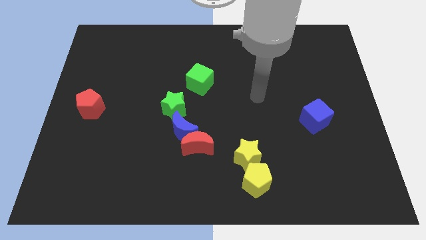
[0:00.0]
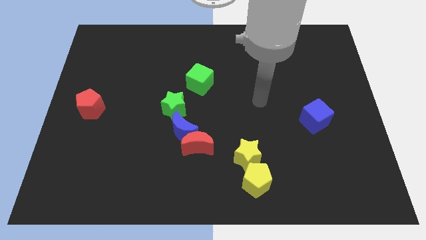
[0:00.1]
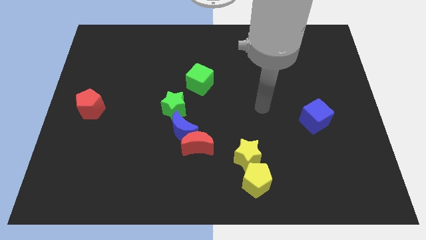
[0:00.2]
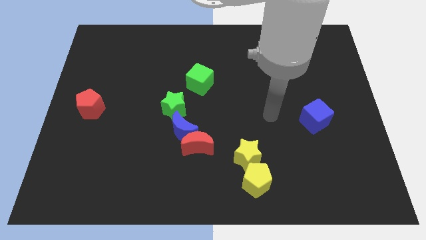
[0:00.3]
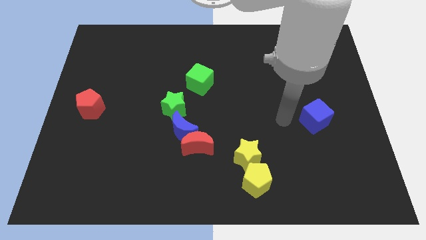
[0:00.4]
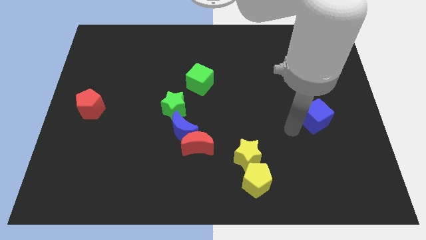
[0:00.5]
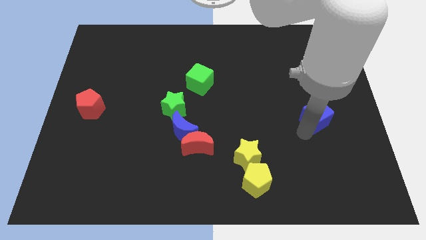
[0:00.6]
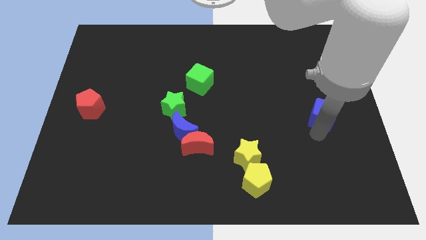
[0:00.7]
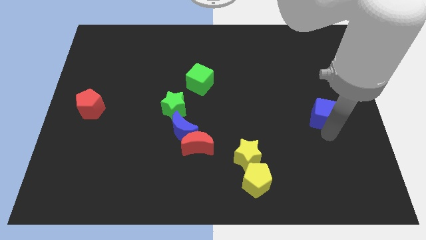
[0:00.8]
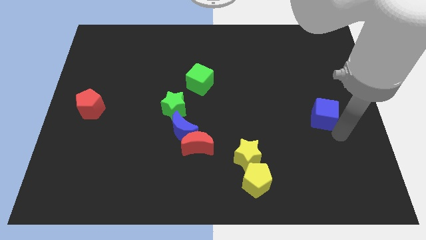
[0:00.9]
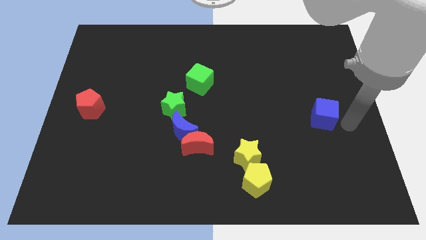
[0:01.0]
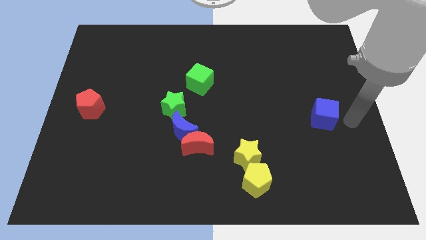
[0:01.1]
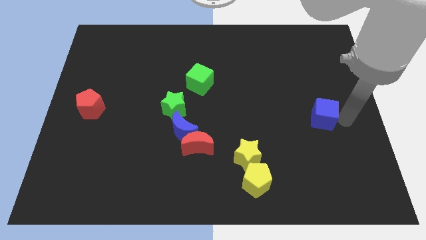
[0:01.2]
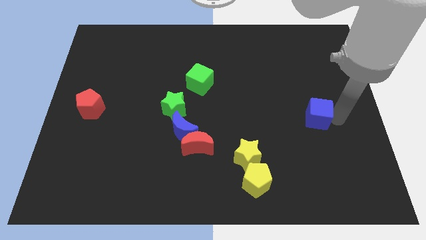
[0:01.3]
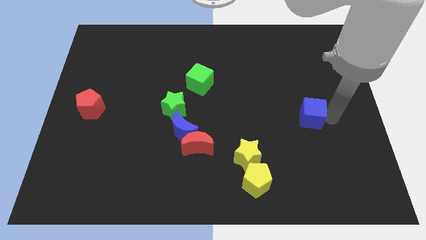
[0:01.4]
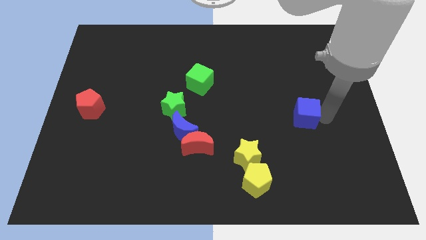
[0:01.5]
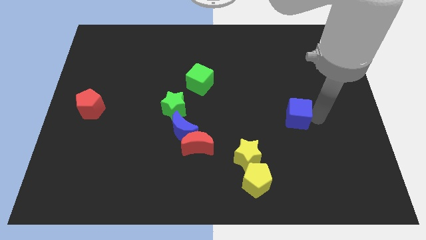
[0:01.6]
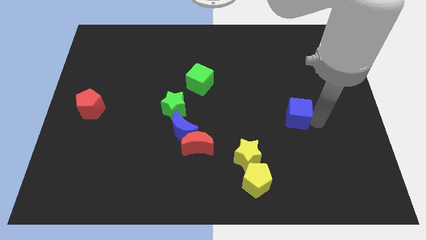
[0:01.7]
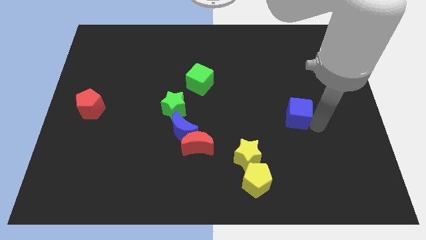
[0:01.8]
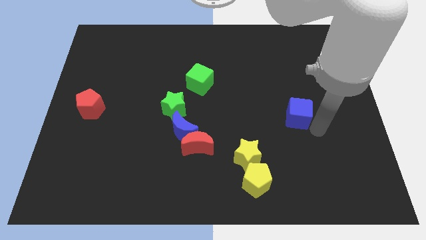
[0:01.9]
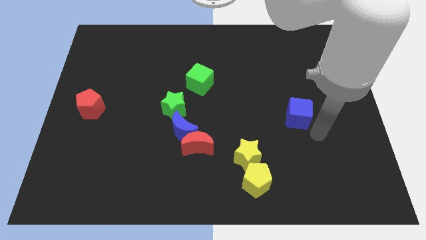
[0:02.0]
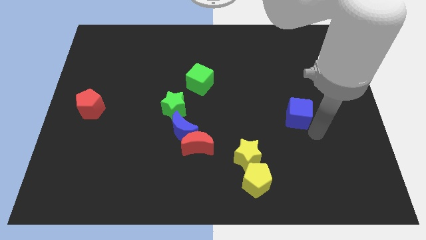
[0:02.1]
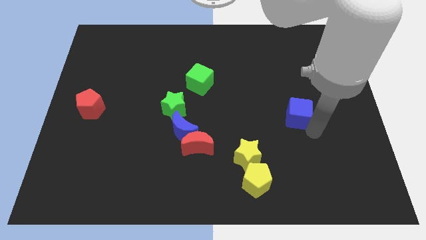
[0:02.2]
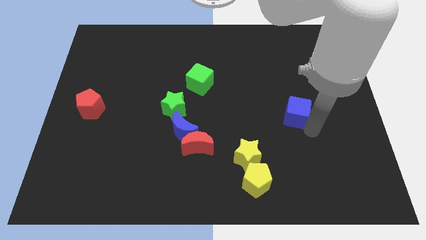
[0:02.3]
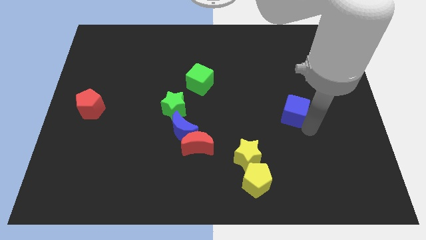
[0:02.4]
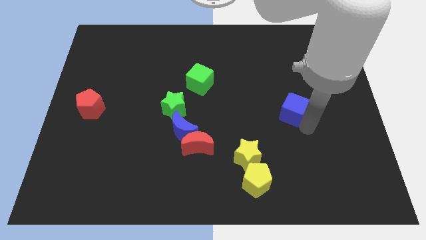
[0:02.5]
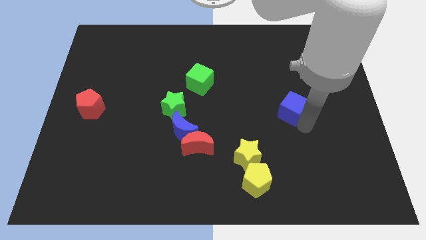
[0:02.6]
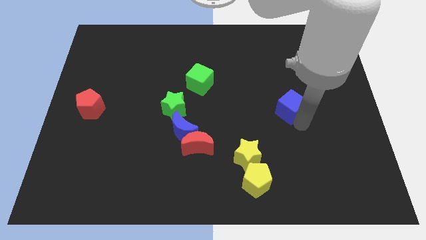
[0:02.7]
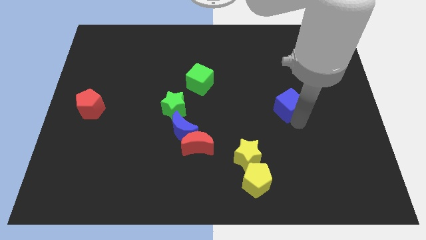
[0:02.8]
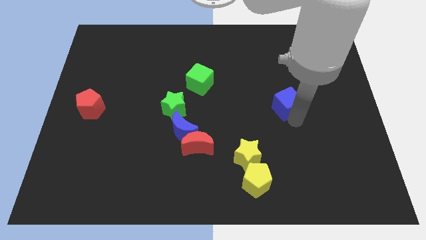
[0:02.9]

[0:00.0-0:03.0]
slide the blue cube upwards and to the left a bit

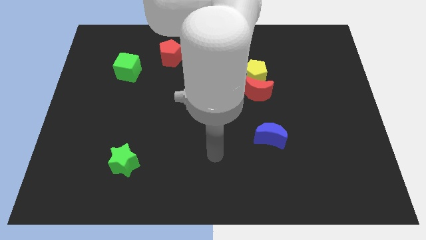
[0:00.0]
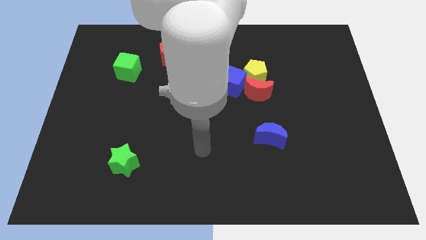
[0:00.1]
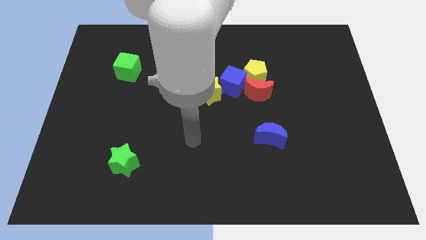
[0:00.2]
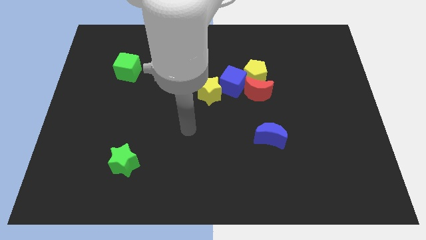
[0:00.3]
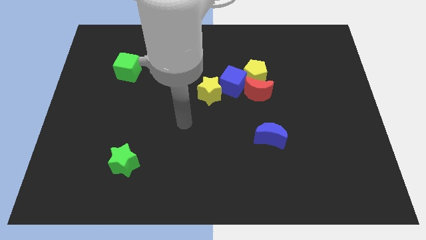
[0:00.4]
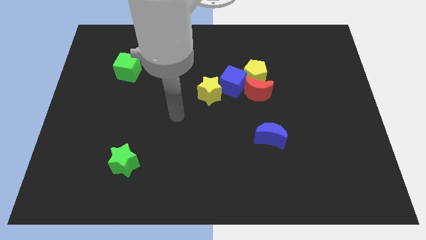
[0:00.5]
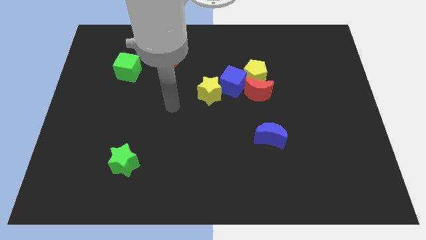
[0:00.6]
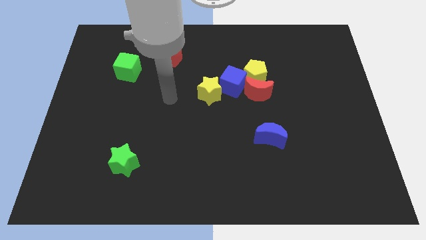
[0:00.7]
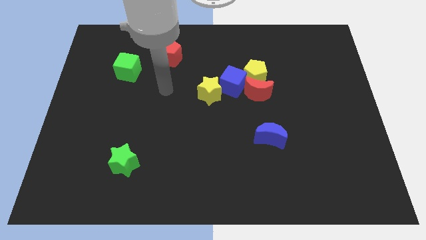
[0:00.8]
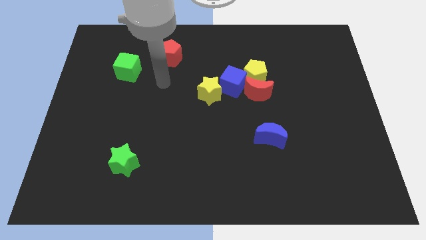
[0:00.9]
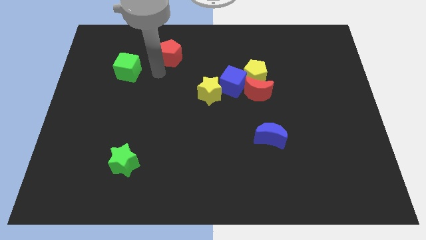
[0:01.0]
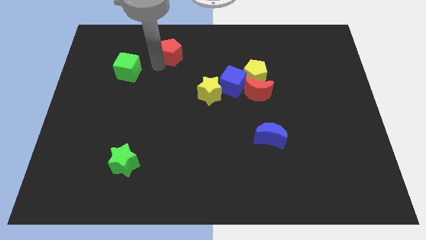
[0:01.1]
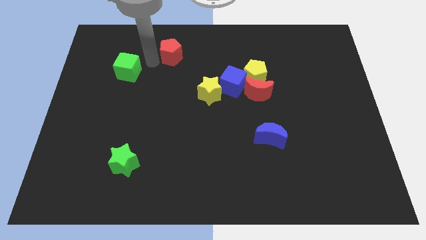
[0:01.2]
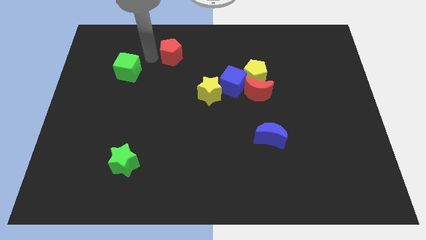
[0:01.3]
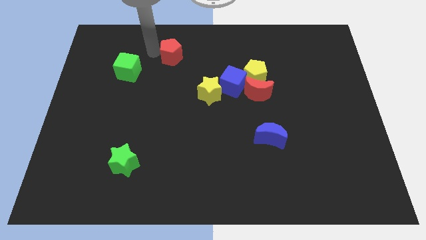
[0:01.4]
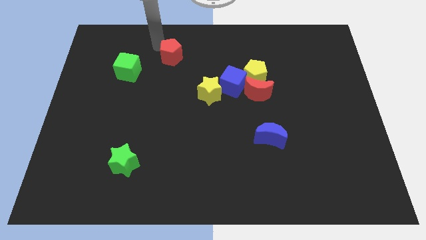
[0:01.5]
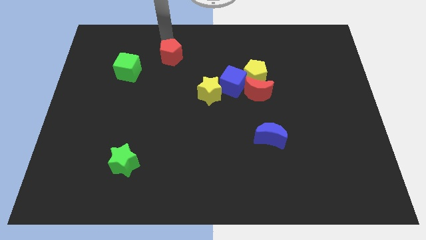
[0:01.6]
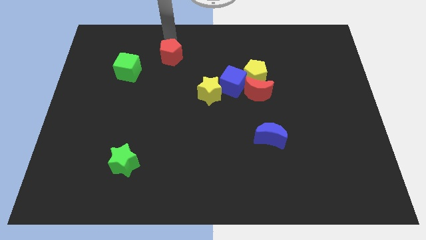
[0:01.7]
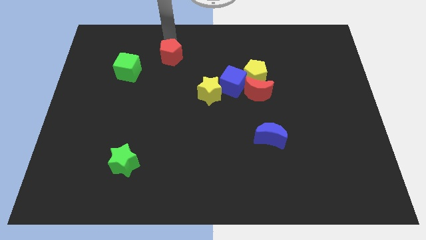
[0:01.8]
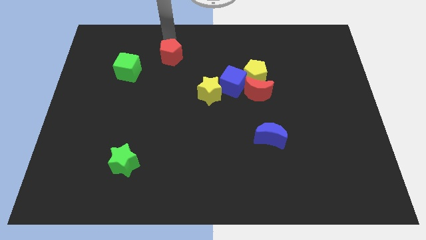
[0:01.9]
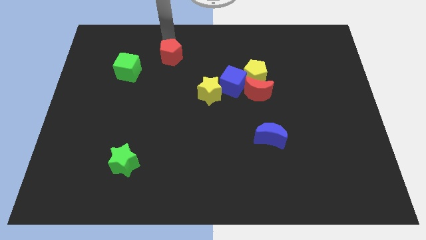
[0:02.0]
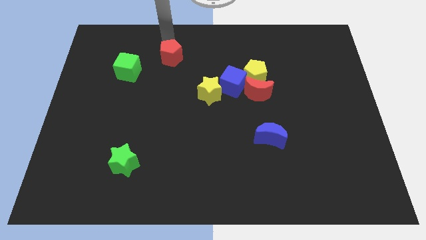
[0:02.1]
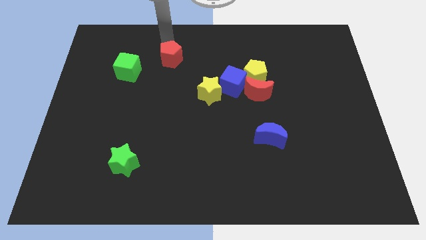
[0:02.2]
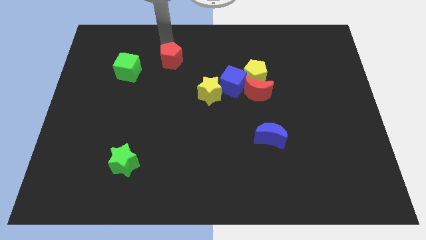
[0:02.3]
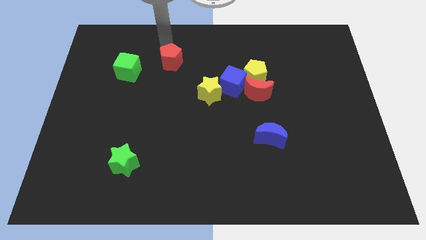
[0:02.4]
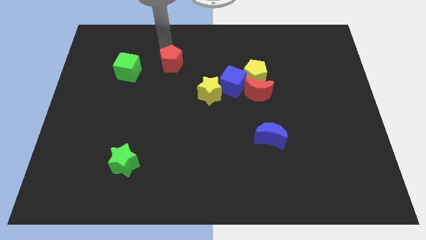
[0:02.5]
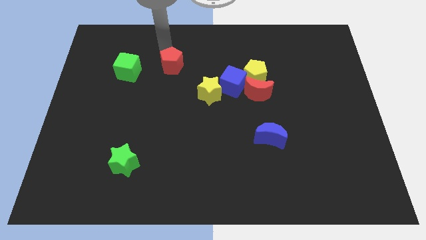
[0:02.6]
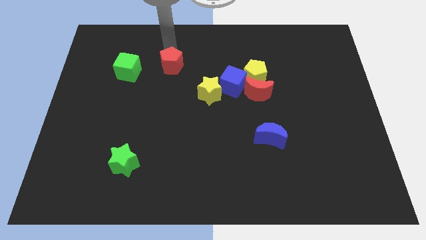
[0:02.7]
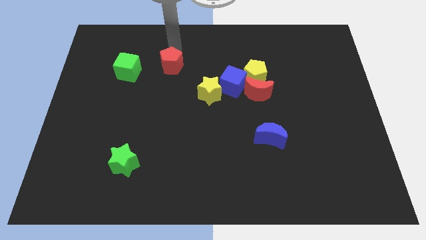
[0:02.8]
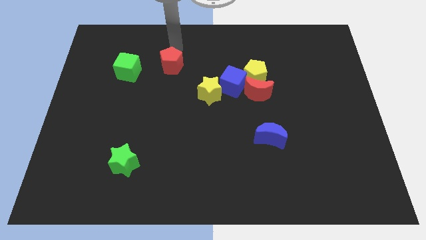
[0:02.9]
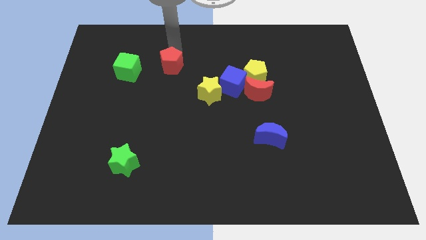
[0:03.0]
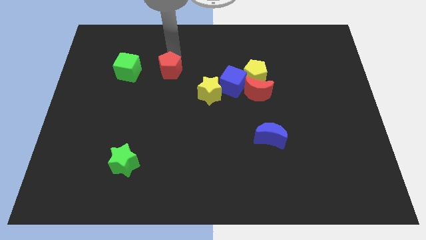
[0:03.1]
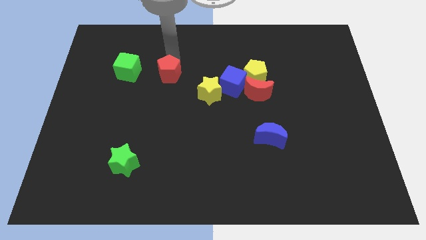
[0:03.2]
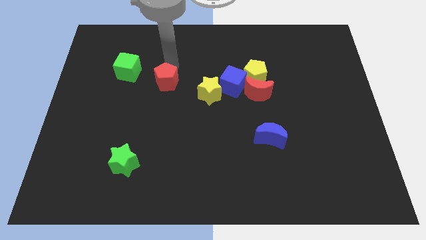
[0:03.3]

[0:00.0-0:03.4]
slightly push the red pentagon down

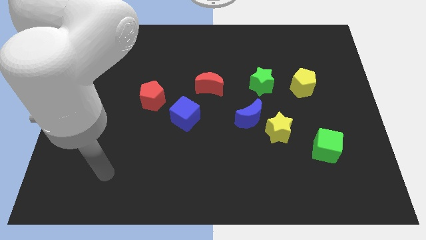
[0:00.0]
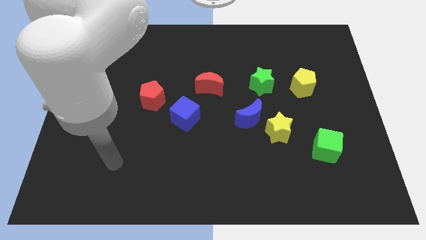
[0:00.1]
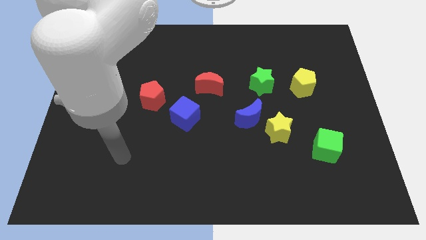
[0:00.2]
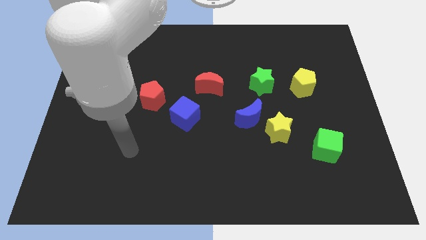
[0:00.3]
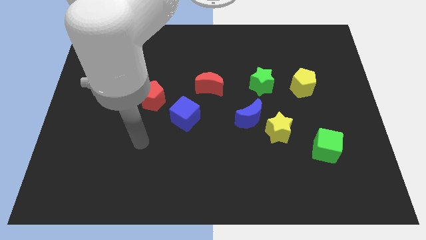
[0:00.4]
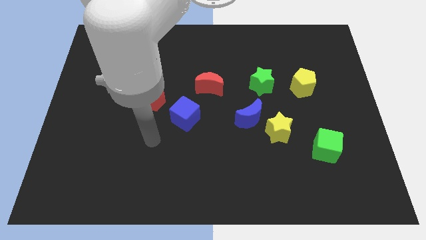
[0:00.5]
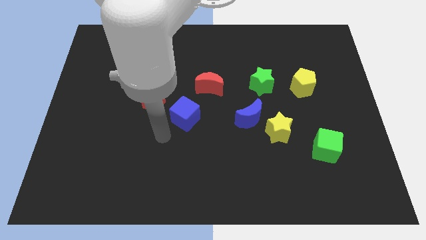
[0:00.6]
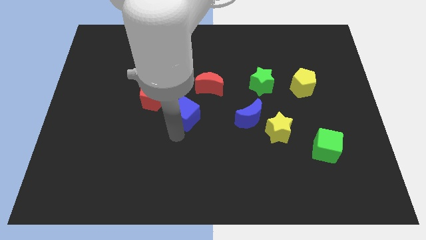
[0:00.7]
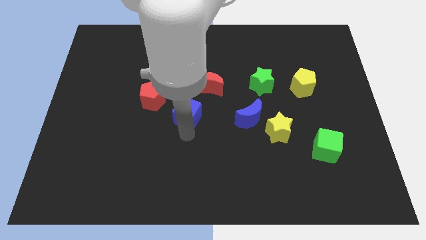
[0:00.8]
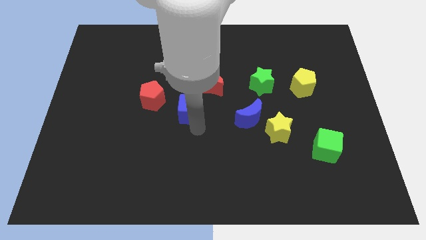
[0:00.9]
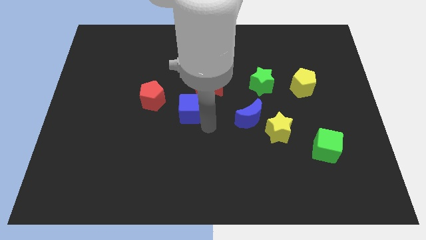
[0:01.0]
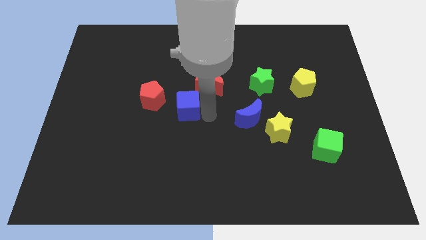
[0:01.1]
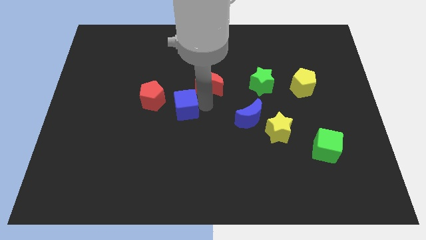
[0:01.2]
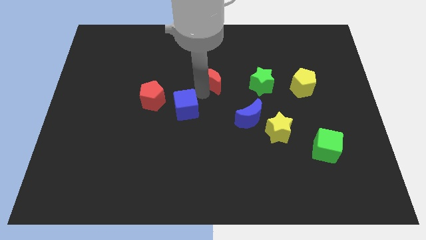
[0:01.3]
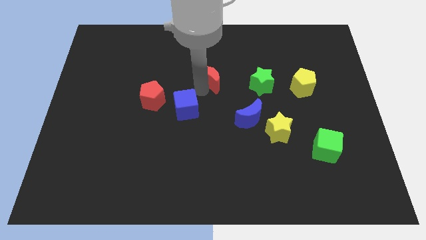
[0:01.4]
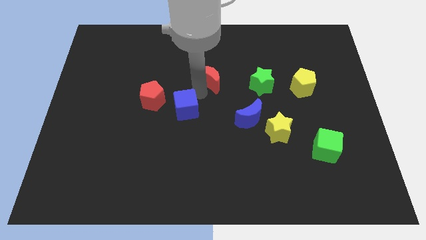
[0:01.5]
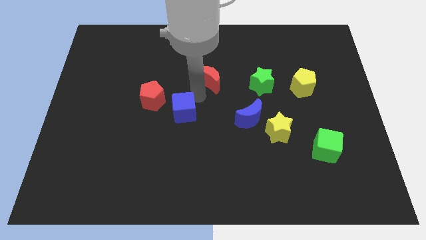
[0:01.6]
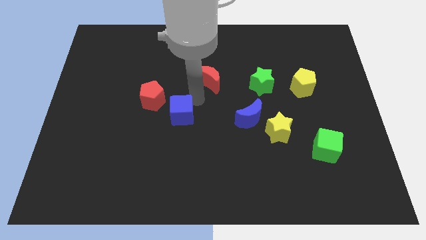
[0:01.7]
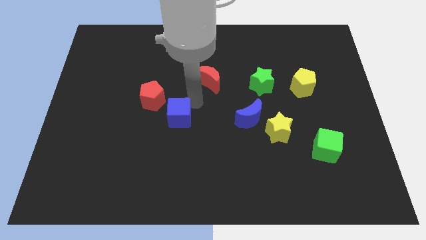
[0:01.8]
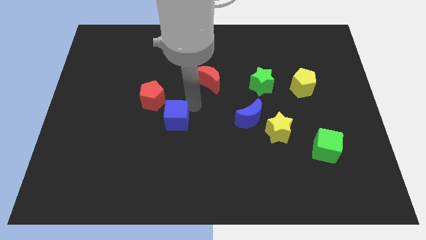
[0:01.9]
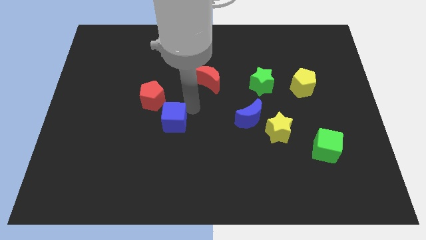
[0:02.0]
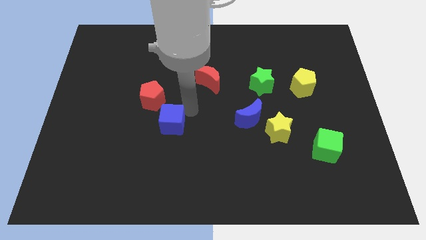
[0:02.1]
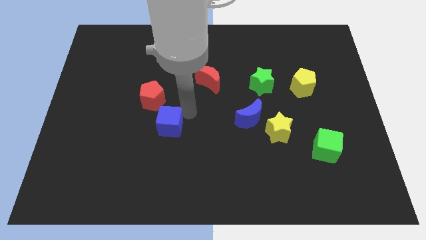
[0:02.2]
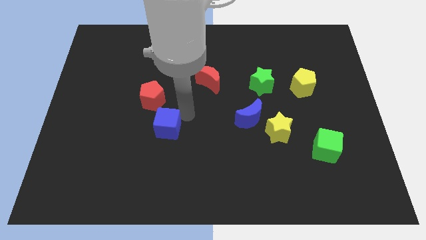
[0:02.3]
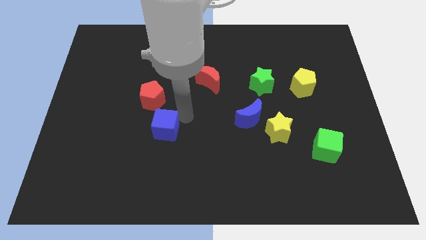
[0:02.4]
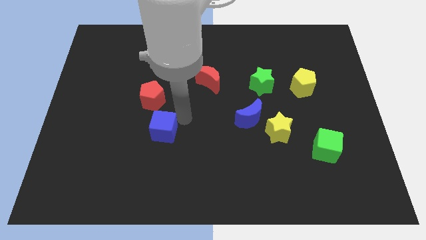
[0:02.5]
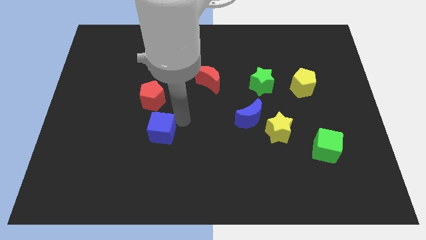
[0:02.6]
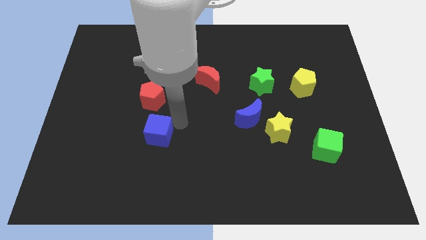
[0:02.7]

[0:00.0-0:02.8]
move the blue cube a little downwards and to the left diagonally
